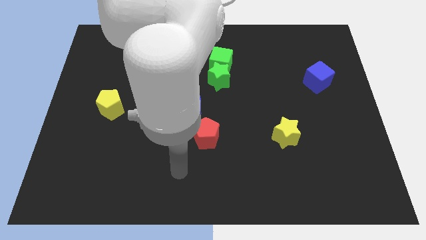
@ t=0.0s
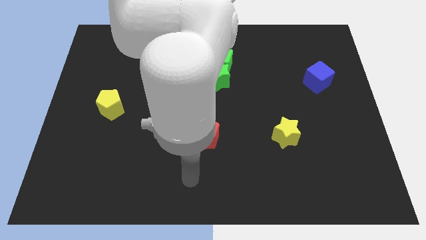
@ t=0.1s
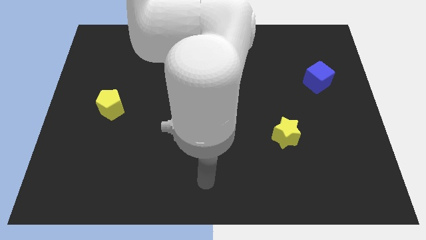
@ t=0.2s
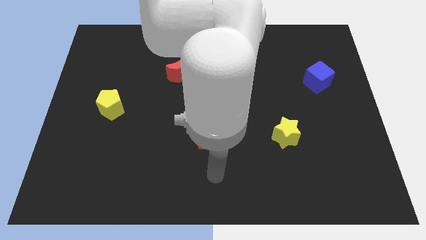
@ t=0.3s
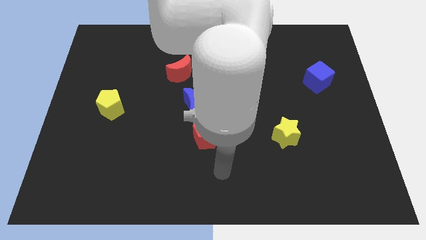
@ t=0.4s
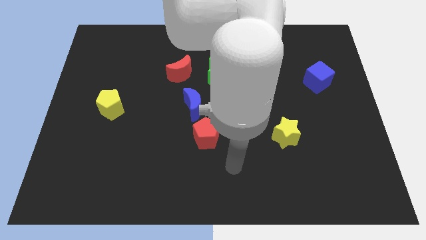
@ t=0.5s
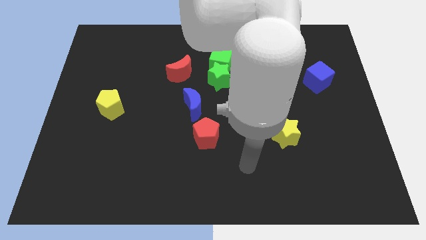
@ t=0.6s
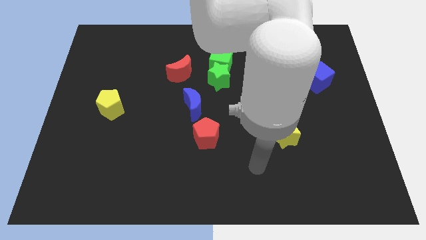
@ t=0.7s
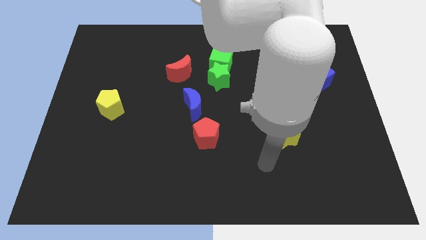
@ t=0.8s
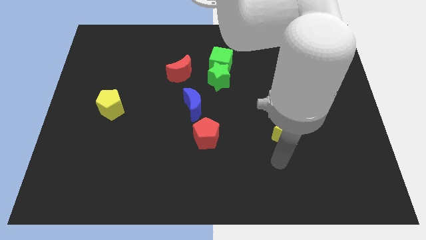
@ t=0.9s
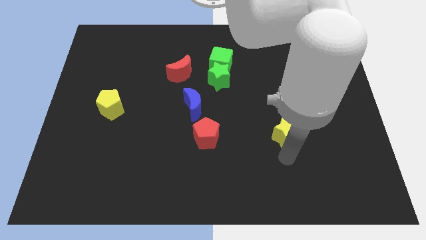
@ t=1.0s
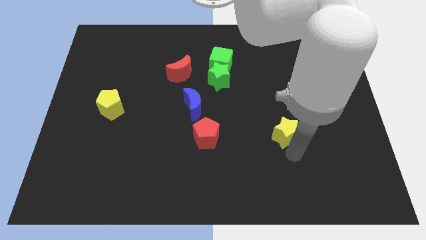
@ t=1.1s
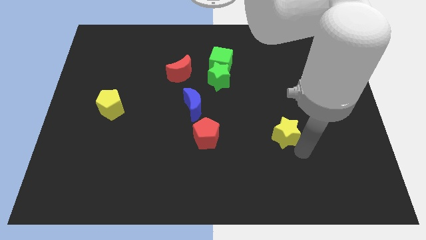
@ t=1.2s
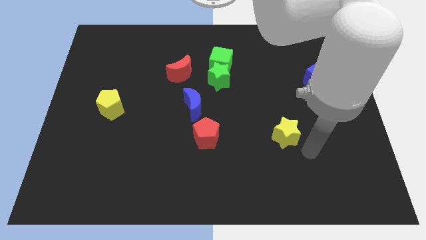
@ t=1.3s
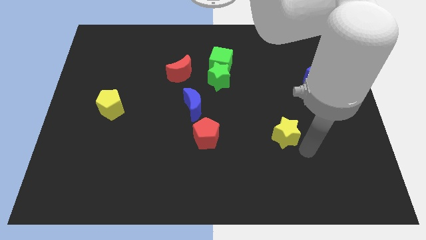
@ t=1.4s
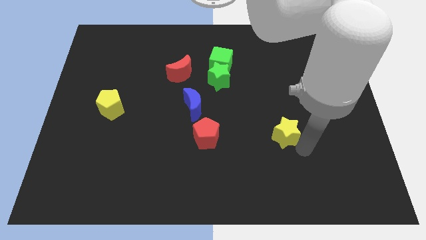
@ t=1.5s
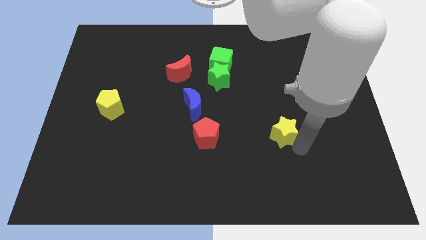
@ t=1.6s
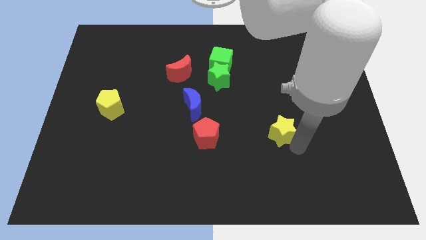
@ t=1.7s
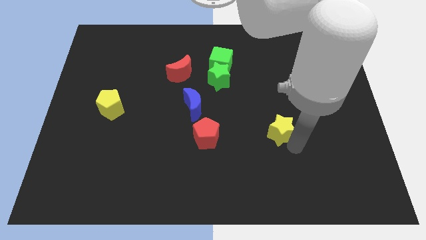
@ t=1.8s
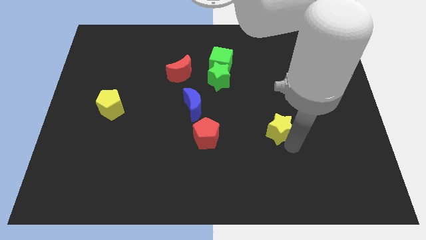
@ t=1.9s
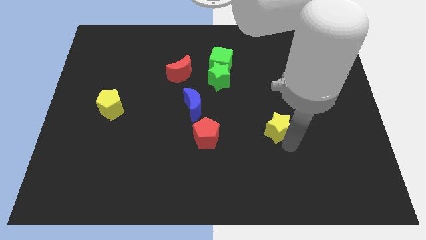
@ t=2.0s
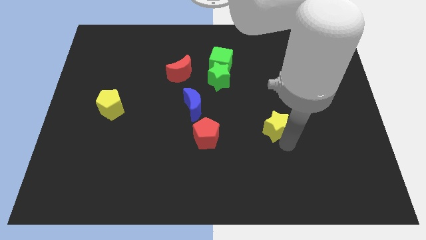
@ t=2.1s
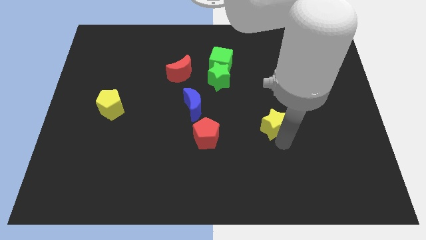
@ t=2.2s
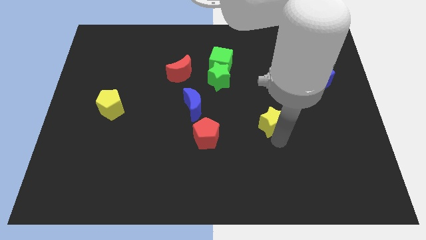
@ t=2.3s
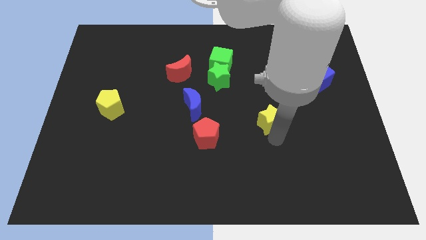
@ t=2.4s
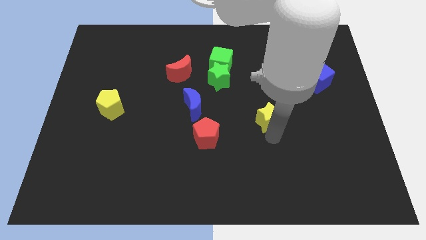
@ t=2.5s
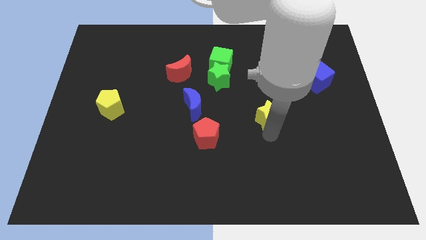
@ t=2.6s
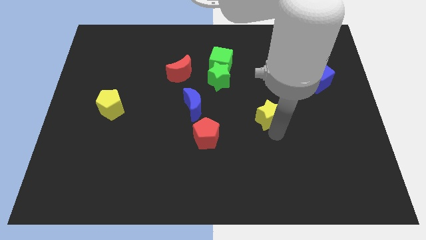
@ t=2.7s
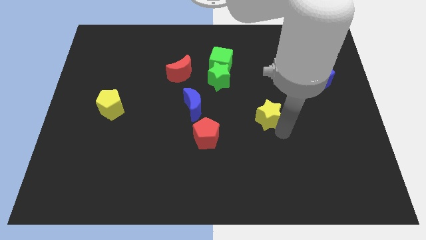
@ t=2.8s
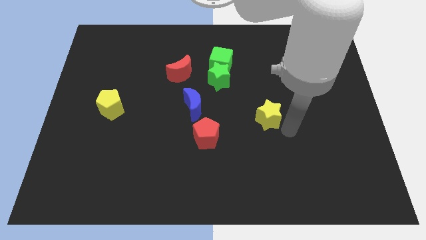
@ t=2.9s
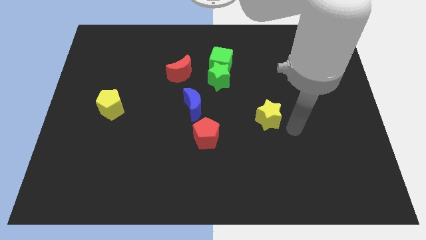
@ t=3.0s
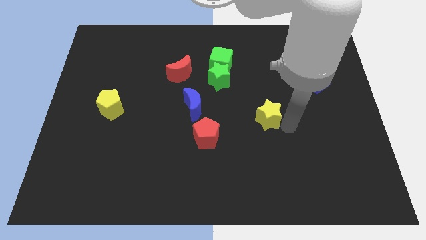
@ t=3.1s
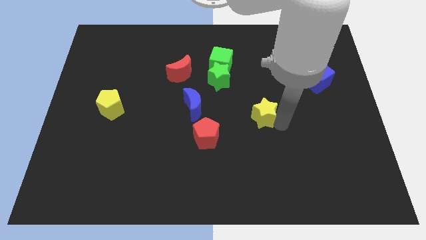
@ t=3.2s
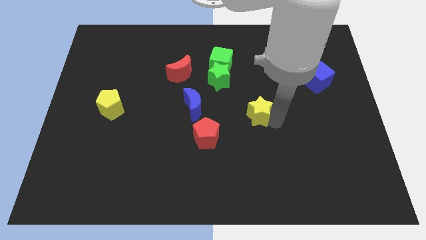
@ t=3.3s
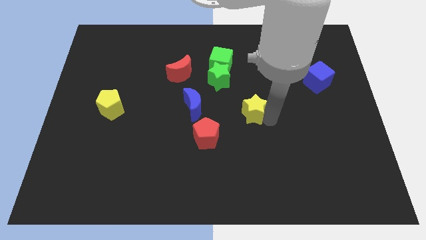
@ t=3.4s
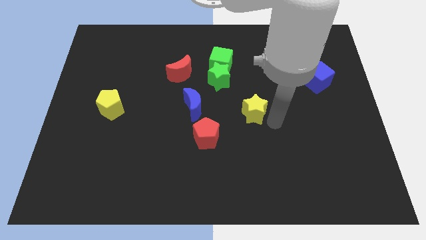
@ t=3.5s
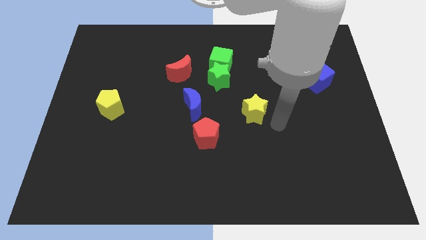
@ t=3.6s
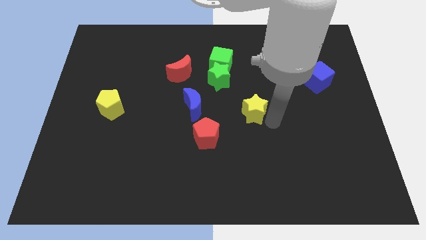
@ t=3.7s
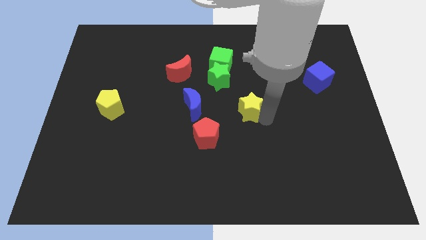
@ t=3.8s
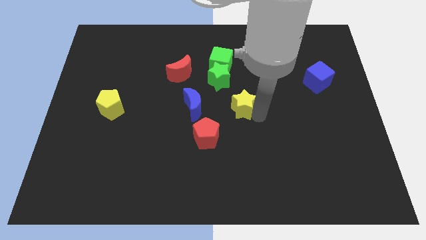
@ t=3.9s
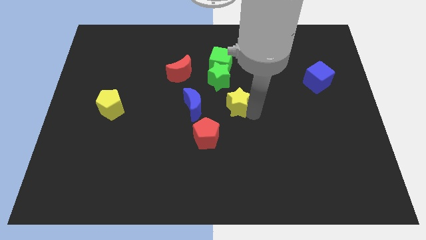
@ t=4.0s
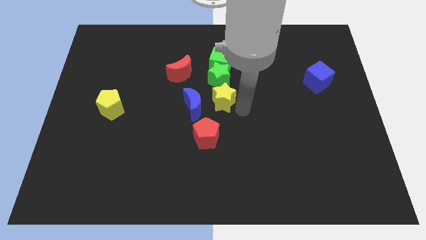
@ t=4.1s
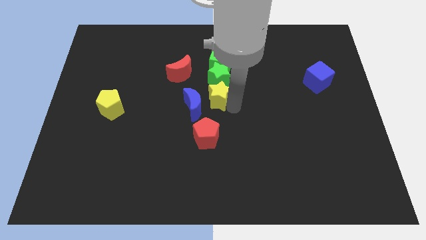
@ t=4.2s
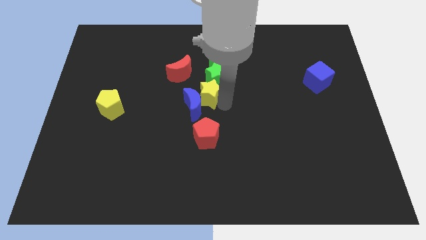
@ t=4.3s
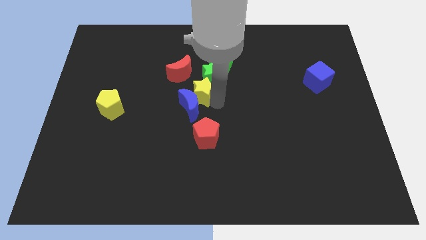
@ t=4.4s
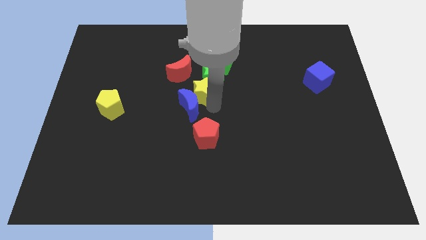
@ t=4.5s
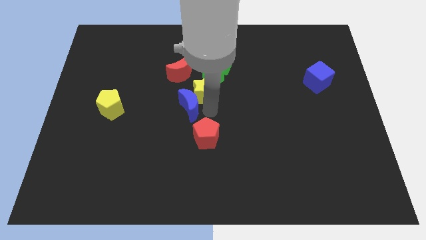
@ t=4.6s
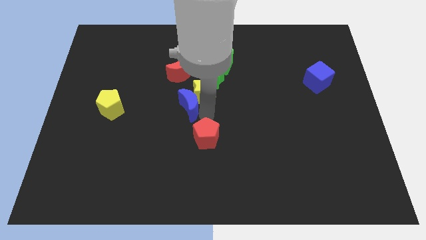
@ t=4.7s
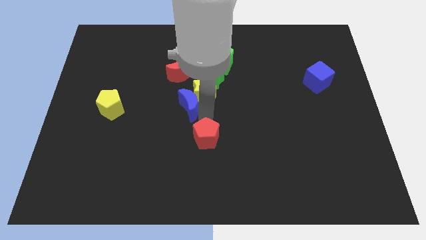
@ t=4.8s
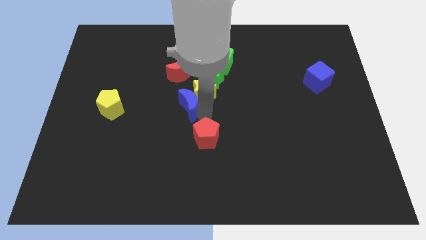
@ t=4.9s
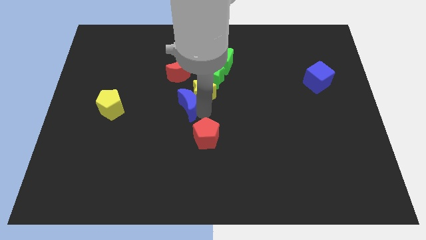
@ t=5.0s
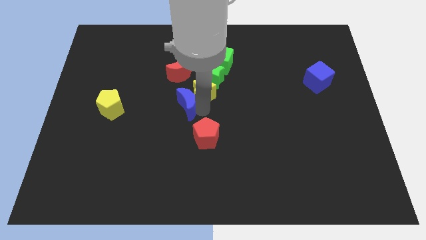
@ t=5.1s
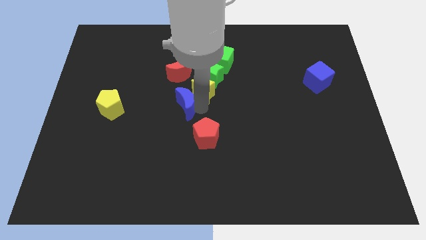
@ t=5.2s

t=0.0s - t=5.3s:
slide the yellow star diagonally down and to the left of the green cube

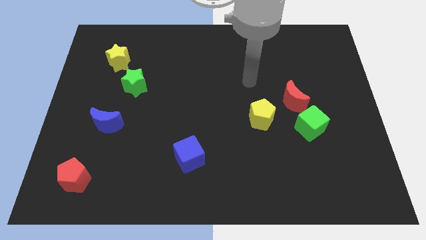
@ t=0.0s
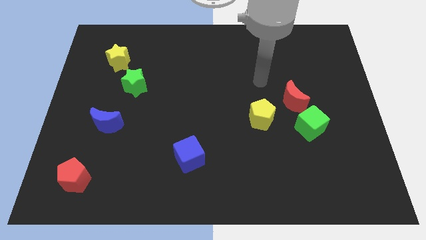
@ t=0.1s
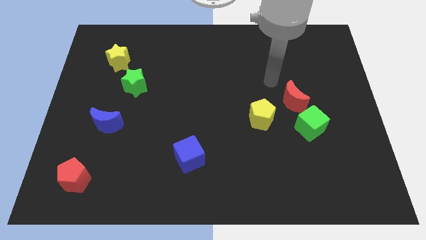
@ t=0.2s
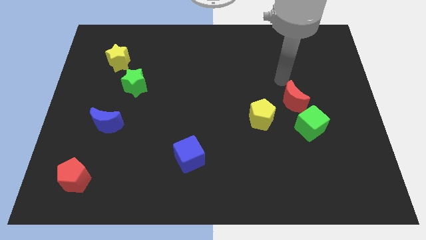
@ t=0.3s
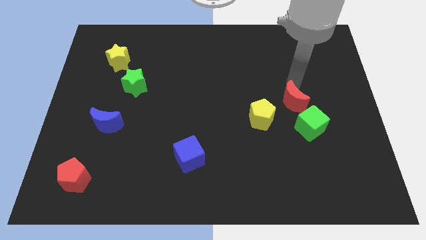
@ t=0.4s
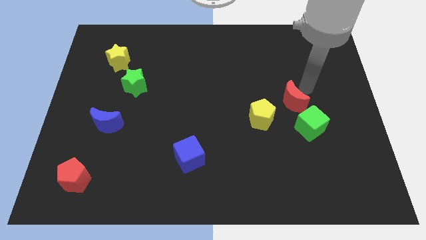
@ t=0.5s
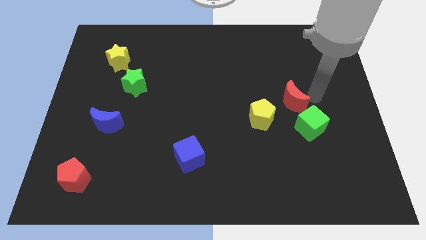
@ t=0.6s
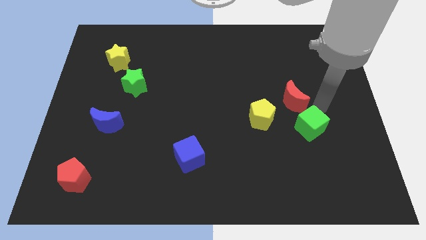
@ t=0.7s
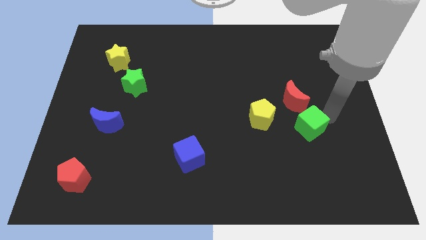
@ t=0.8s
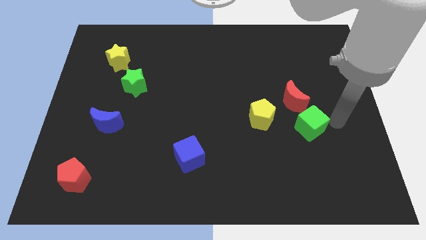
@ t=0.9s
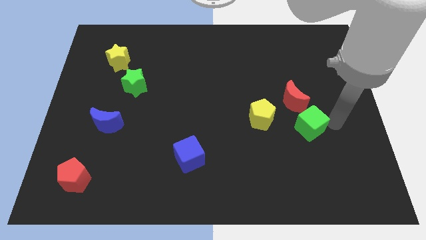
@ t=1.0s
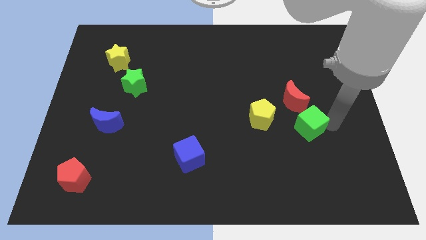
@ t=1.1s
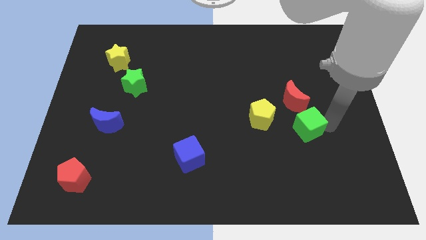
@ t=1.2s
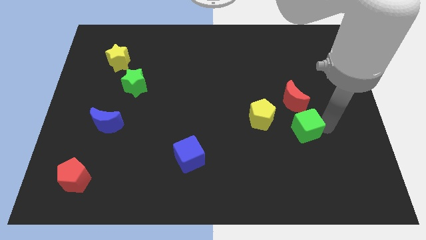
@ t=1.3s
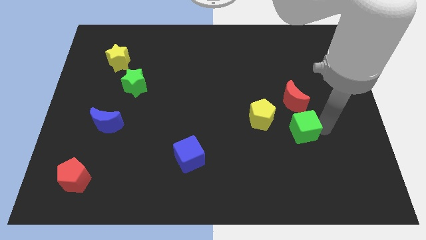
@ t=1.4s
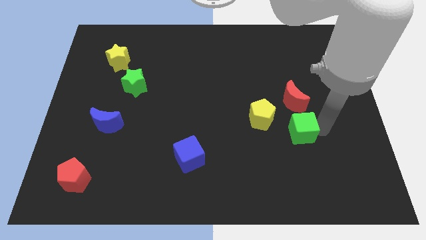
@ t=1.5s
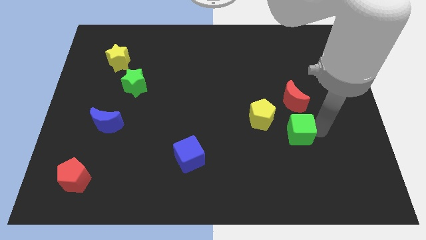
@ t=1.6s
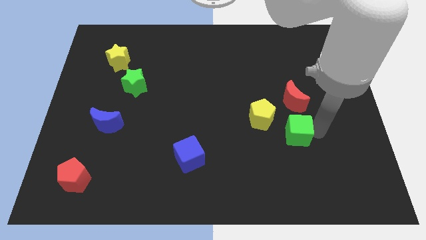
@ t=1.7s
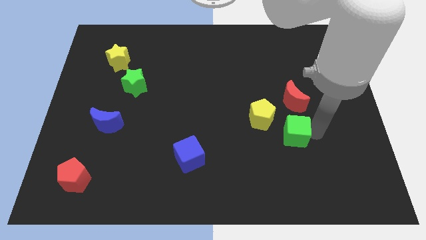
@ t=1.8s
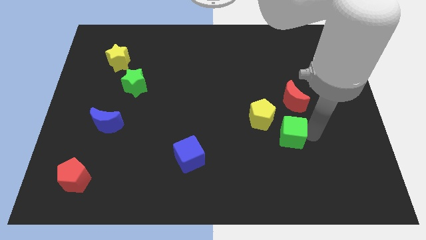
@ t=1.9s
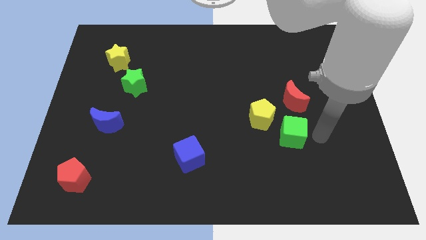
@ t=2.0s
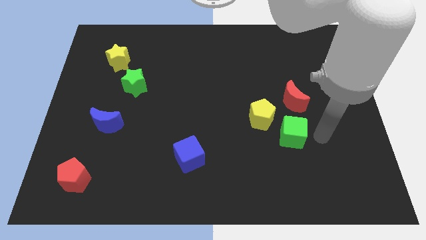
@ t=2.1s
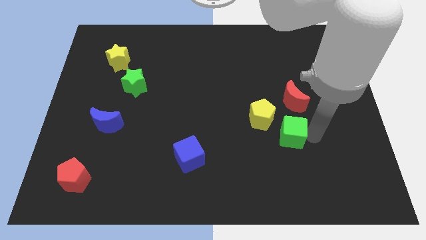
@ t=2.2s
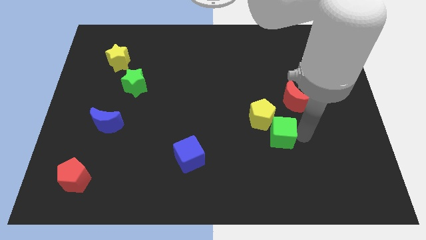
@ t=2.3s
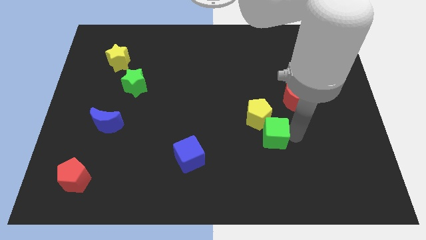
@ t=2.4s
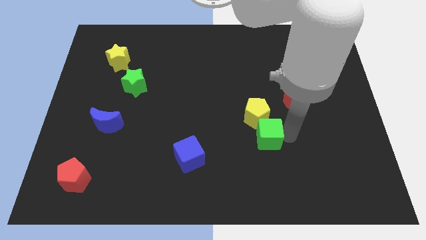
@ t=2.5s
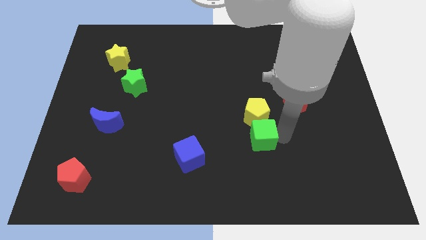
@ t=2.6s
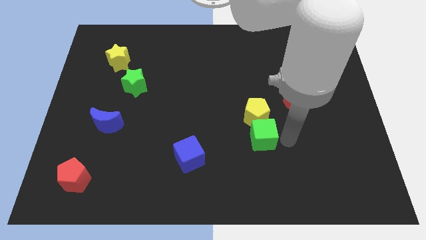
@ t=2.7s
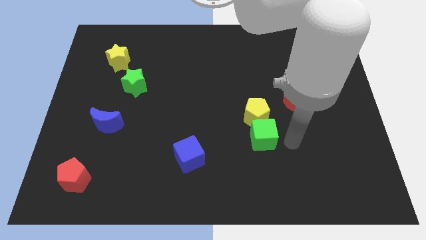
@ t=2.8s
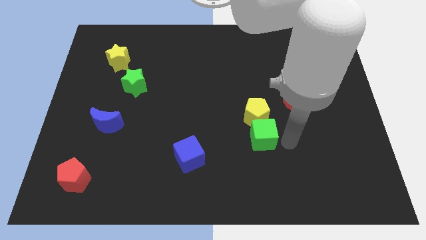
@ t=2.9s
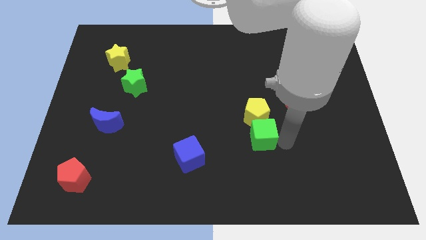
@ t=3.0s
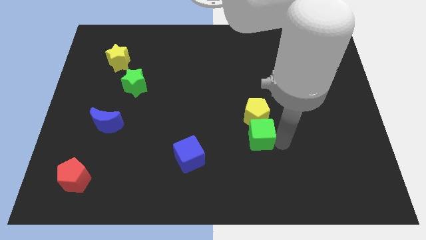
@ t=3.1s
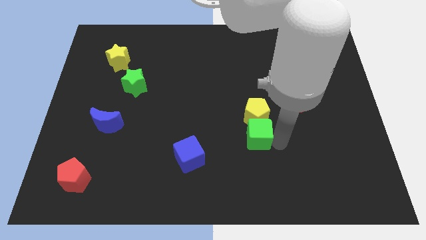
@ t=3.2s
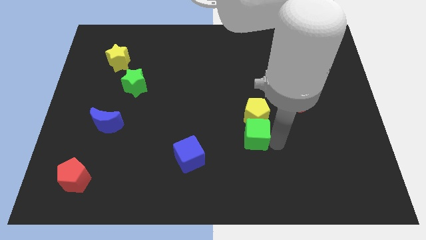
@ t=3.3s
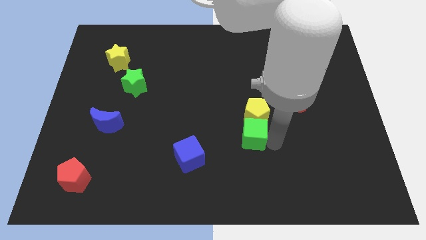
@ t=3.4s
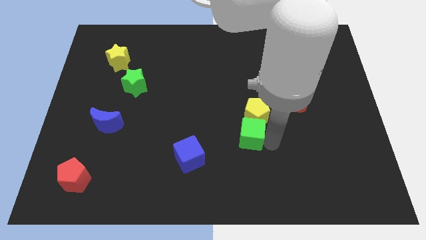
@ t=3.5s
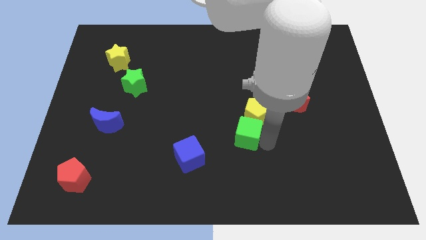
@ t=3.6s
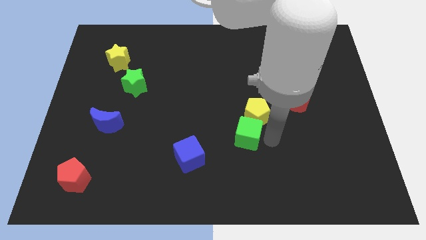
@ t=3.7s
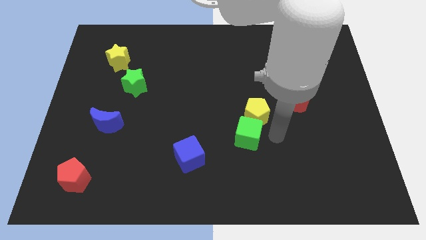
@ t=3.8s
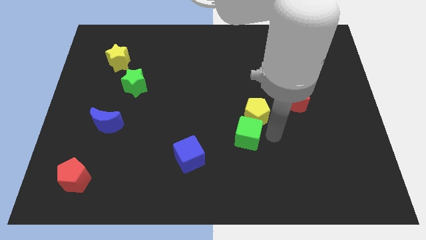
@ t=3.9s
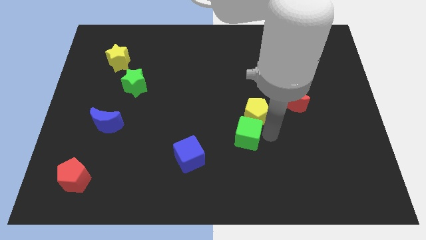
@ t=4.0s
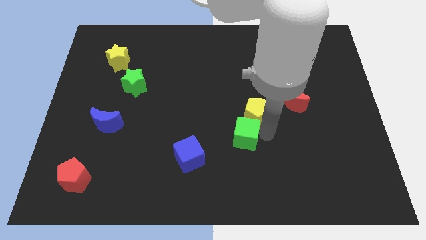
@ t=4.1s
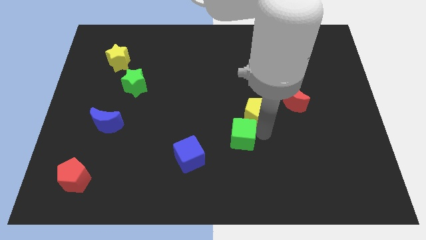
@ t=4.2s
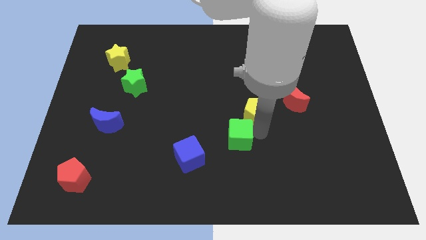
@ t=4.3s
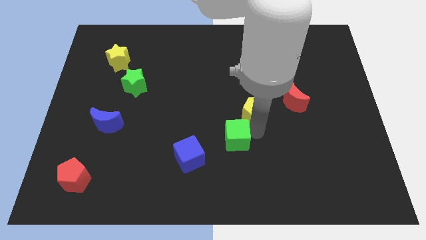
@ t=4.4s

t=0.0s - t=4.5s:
move the green cube to the top right side of the blue cube
